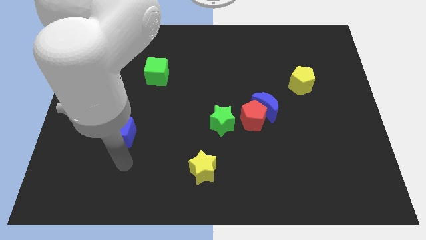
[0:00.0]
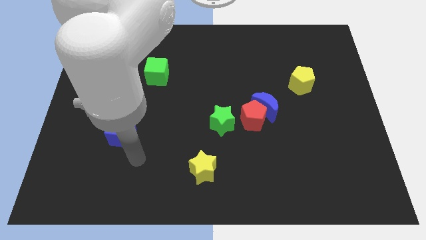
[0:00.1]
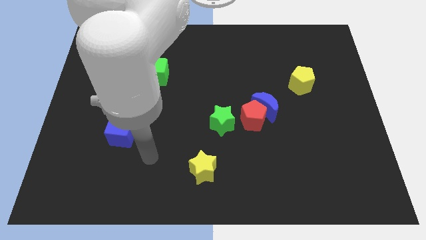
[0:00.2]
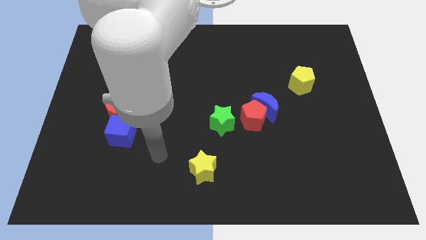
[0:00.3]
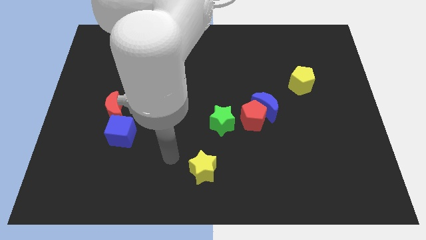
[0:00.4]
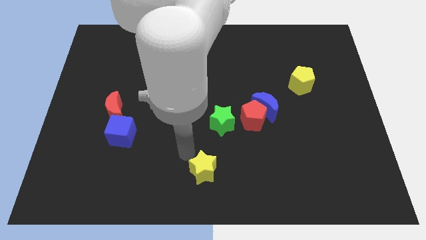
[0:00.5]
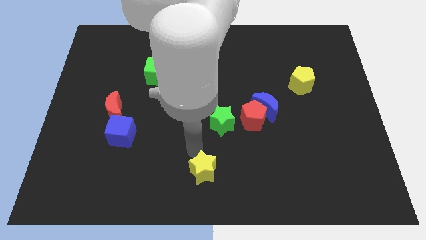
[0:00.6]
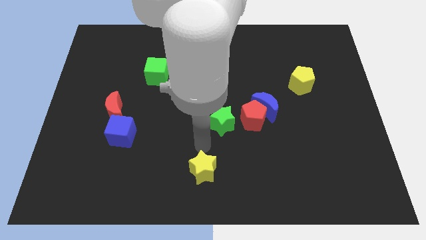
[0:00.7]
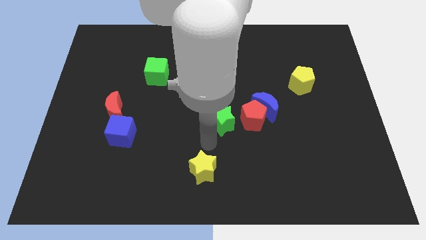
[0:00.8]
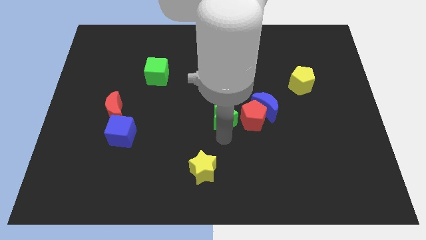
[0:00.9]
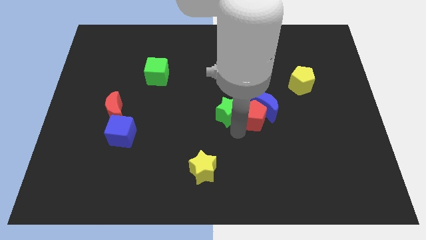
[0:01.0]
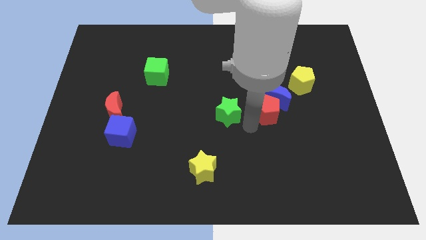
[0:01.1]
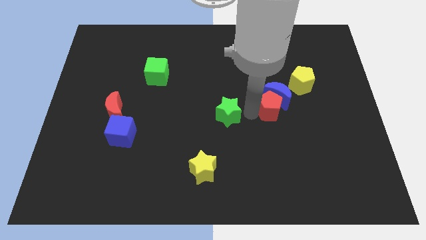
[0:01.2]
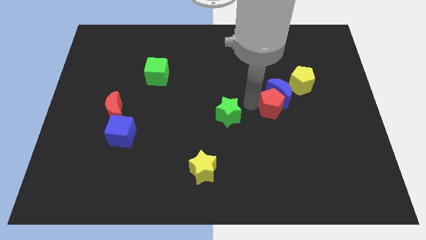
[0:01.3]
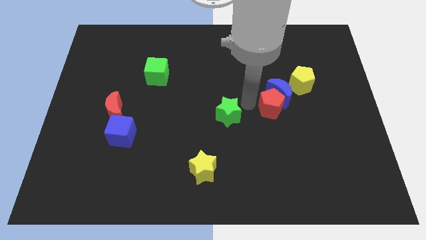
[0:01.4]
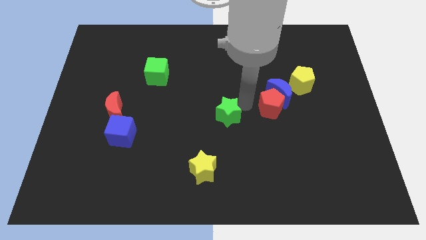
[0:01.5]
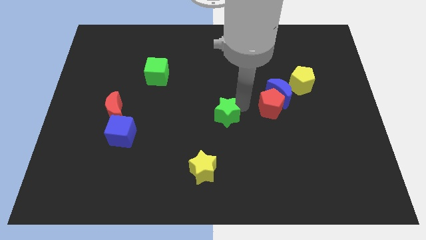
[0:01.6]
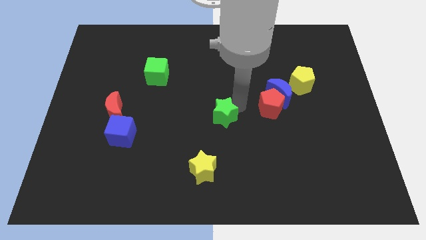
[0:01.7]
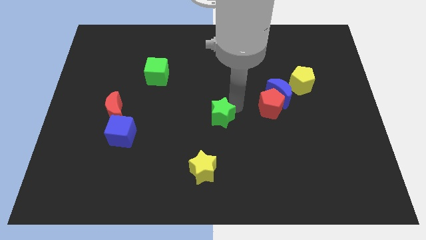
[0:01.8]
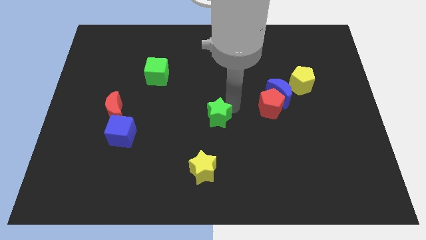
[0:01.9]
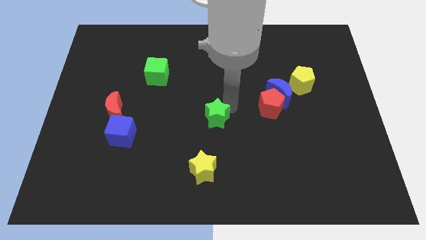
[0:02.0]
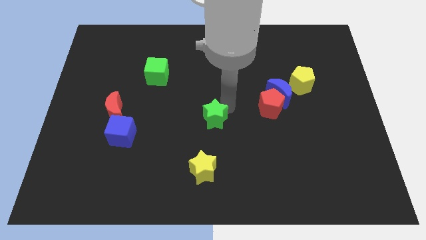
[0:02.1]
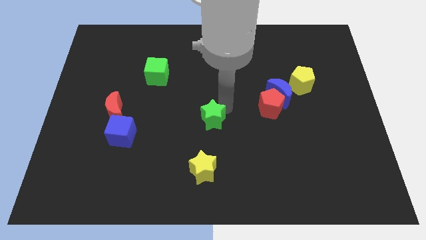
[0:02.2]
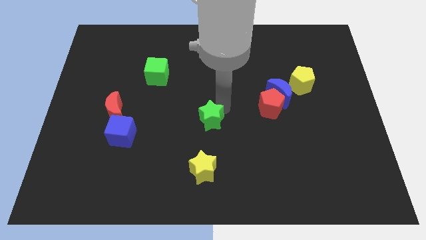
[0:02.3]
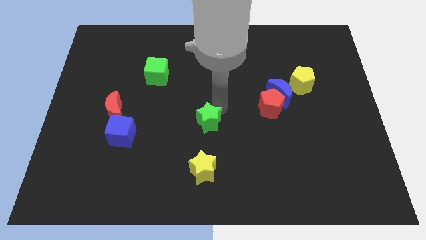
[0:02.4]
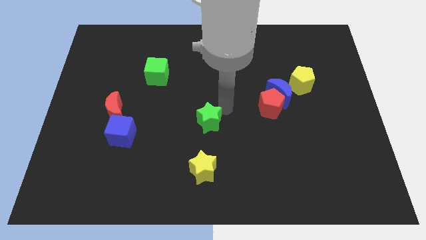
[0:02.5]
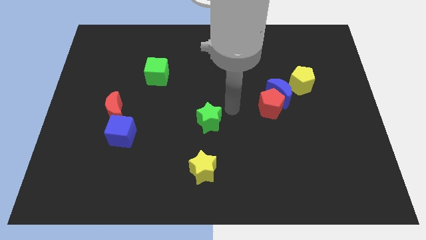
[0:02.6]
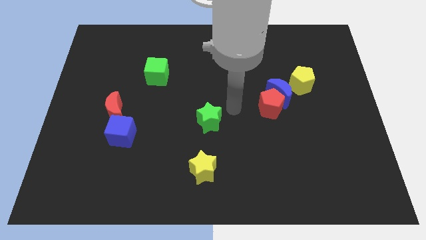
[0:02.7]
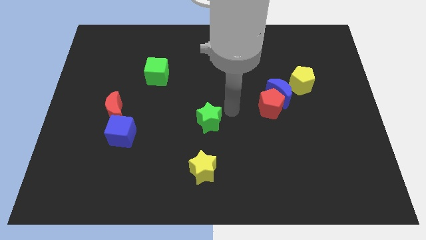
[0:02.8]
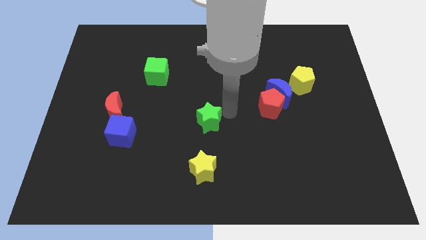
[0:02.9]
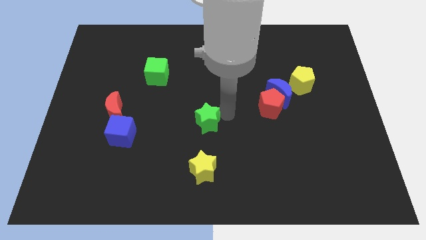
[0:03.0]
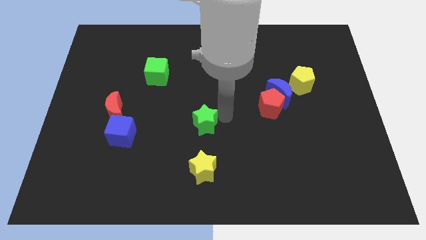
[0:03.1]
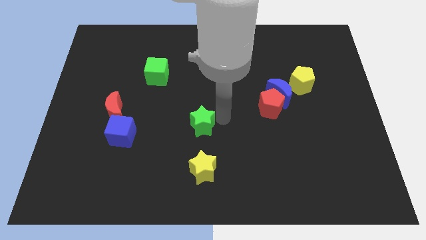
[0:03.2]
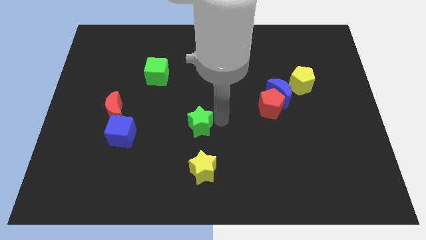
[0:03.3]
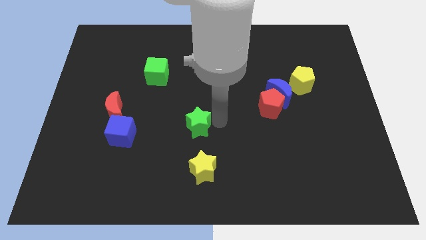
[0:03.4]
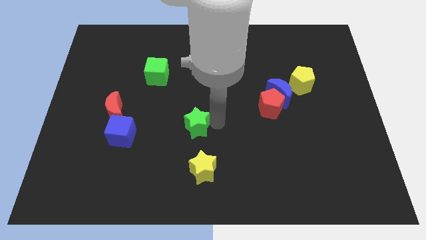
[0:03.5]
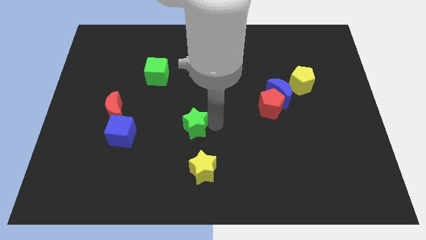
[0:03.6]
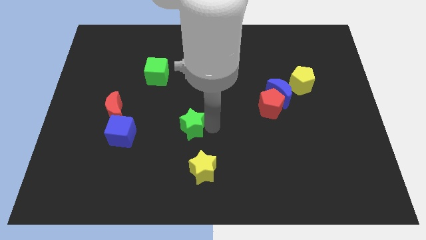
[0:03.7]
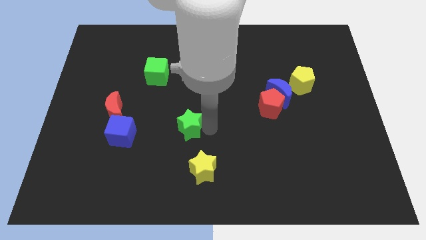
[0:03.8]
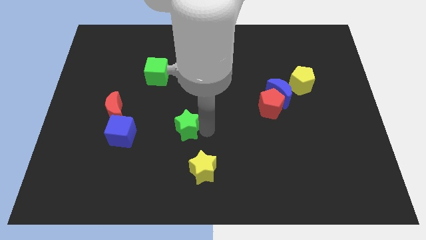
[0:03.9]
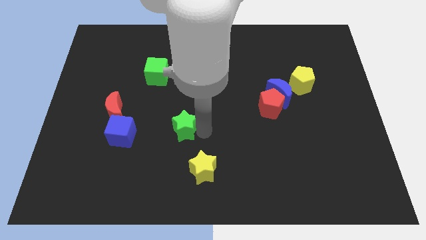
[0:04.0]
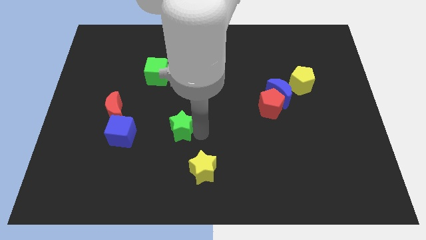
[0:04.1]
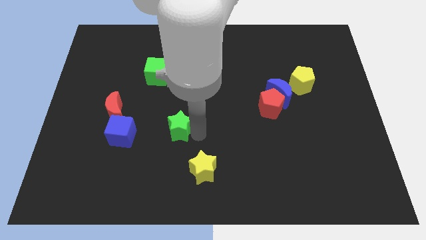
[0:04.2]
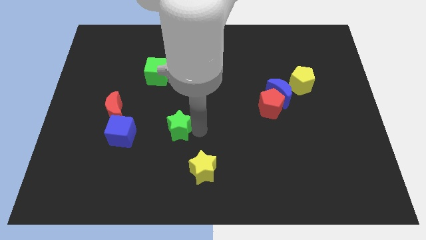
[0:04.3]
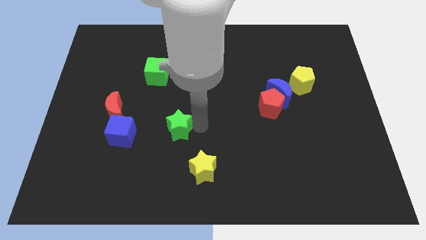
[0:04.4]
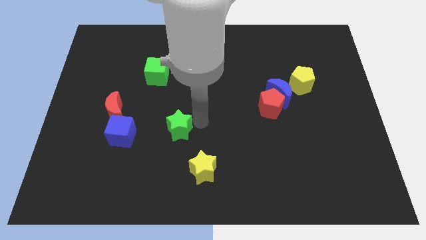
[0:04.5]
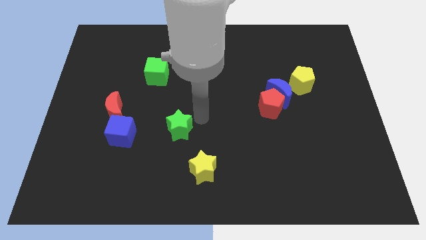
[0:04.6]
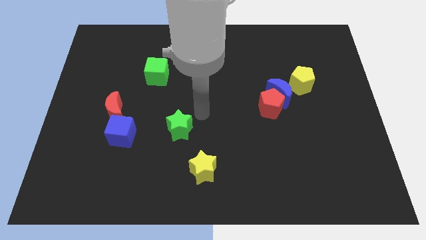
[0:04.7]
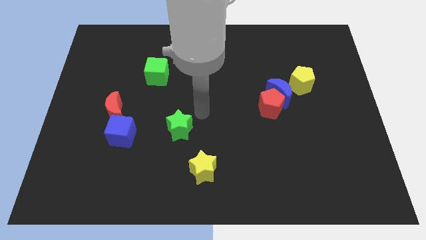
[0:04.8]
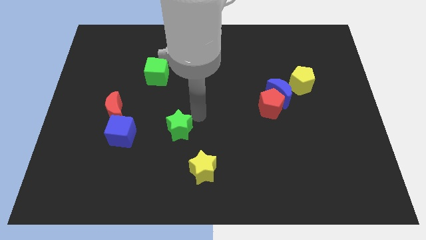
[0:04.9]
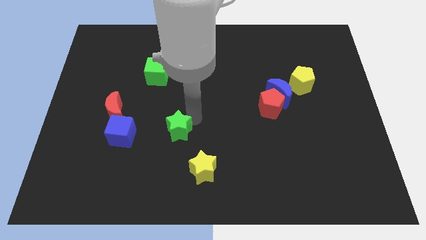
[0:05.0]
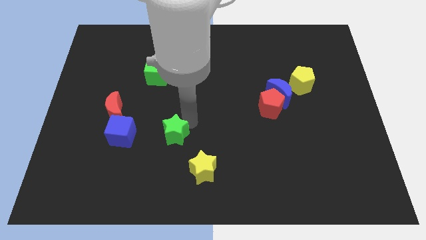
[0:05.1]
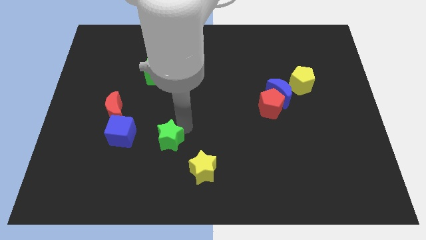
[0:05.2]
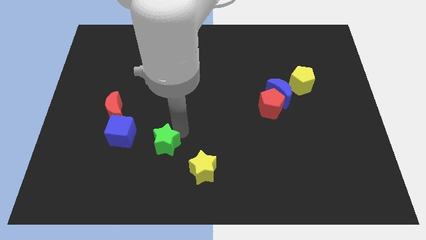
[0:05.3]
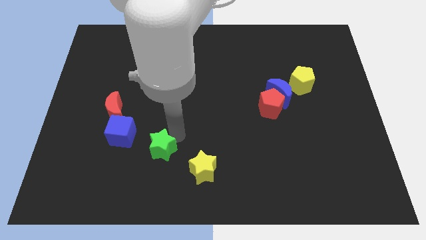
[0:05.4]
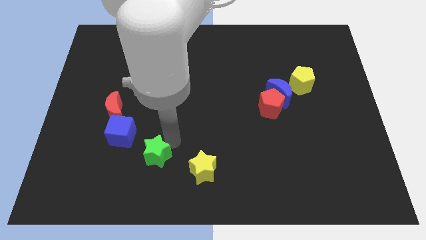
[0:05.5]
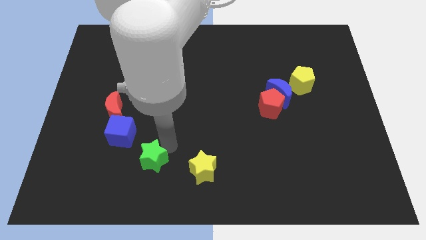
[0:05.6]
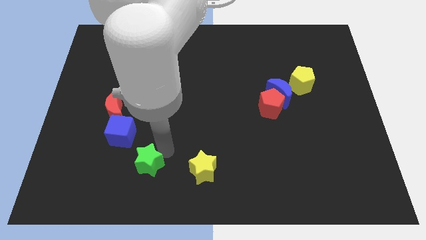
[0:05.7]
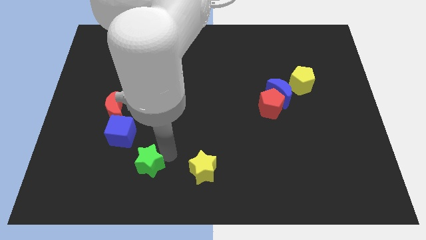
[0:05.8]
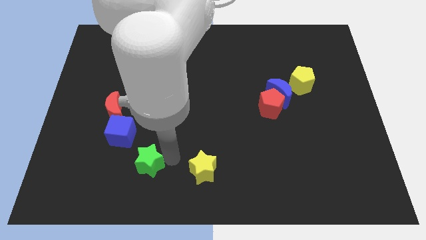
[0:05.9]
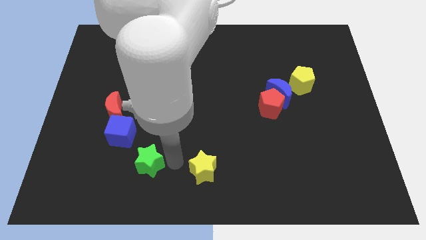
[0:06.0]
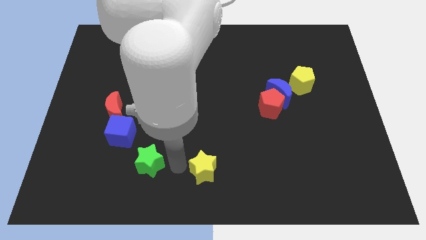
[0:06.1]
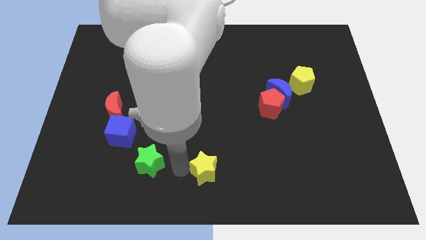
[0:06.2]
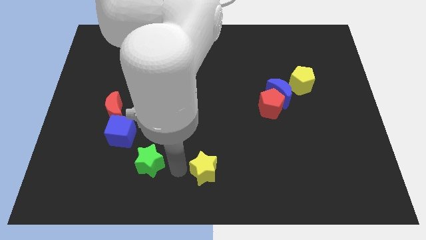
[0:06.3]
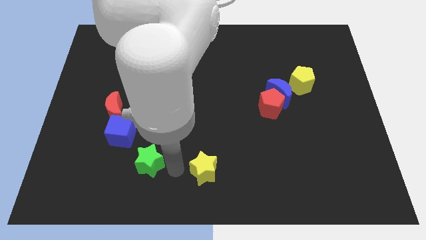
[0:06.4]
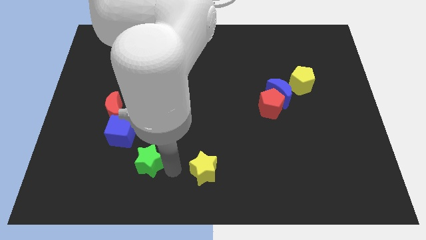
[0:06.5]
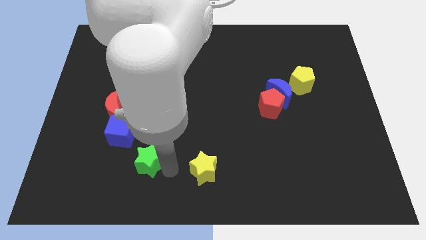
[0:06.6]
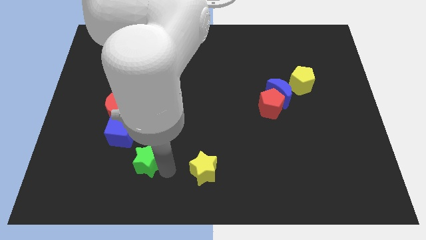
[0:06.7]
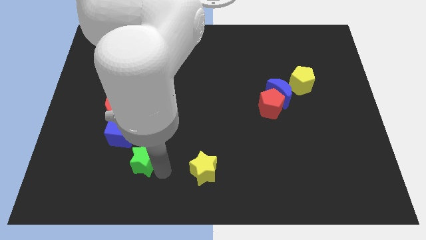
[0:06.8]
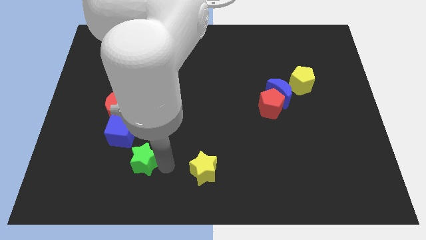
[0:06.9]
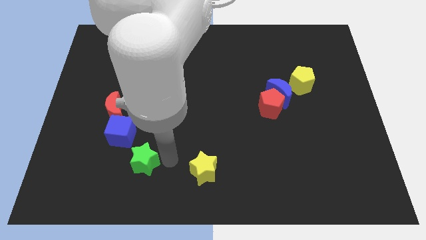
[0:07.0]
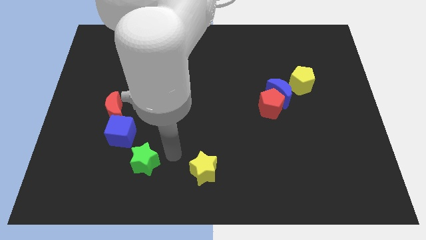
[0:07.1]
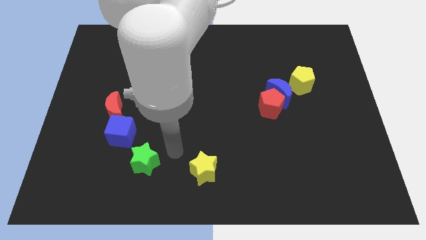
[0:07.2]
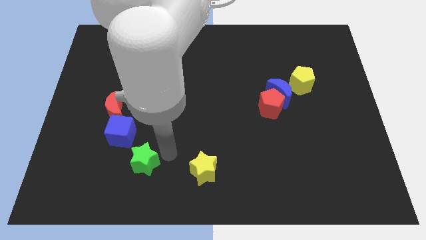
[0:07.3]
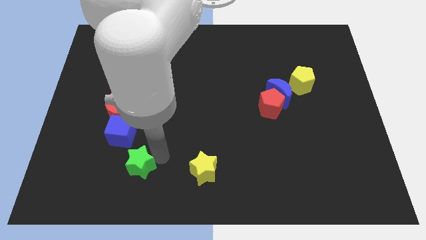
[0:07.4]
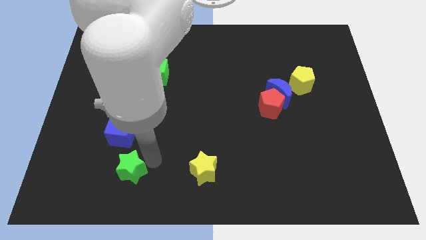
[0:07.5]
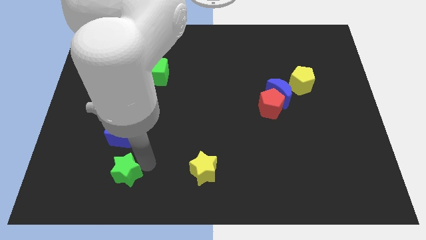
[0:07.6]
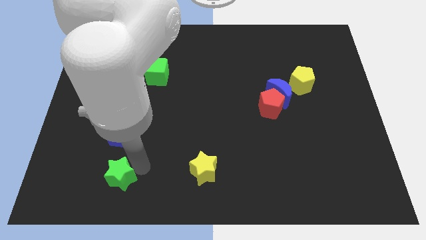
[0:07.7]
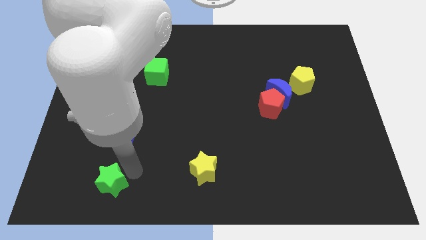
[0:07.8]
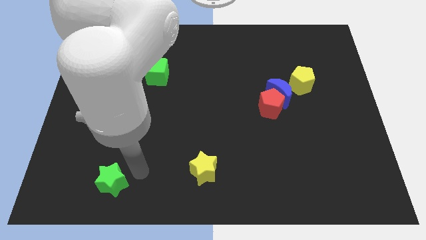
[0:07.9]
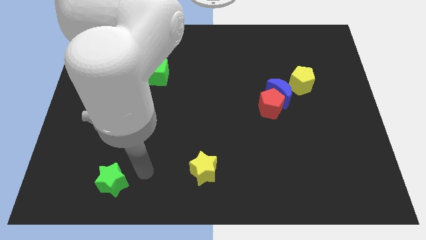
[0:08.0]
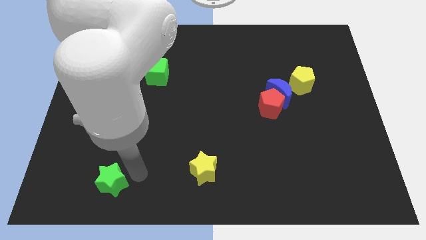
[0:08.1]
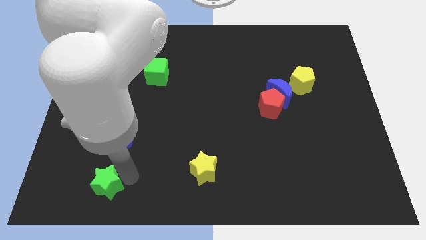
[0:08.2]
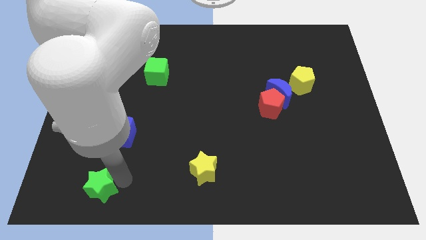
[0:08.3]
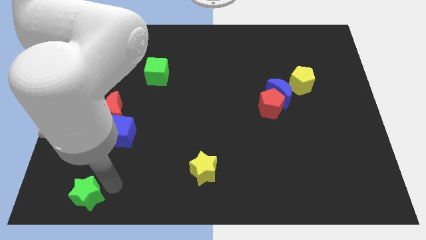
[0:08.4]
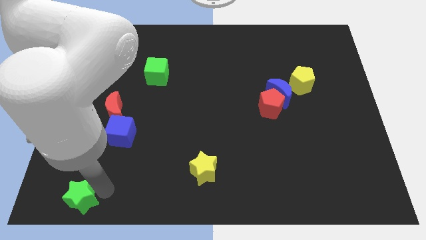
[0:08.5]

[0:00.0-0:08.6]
slide the green star to the bottom left corner
